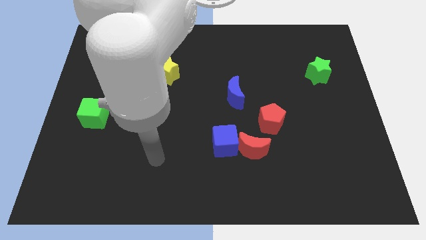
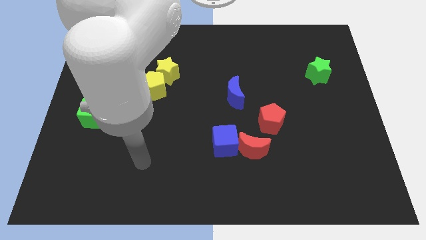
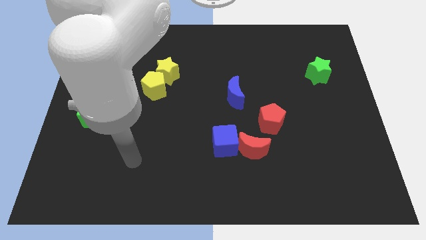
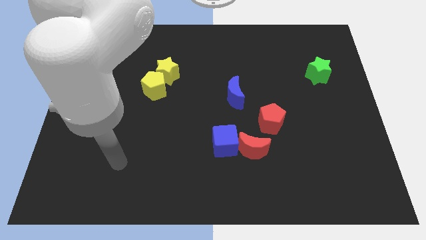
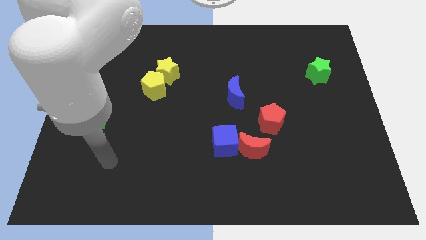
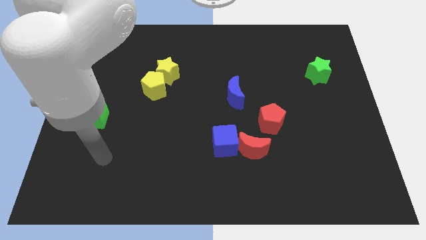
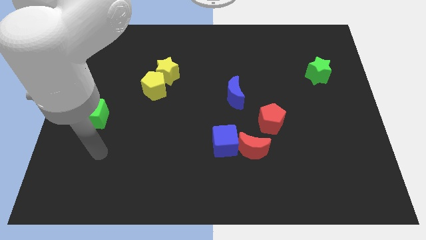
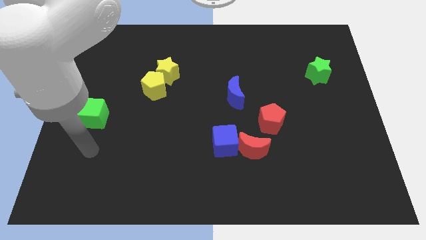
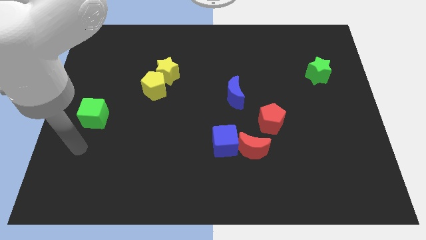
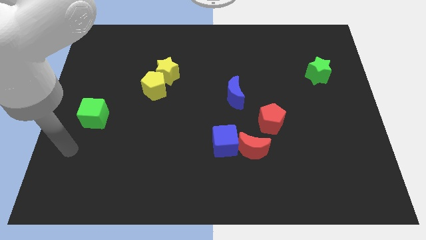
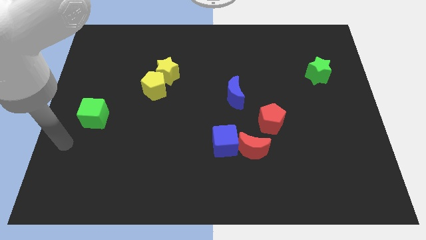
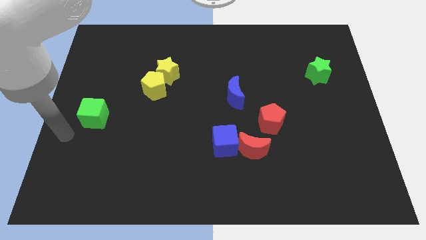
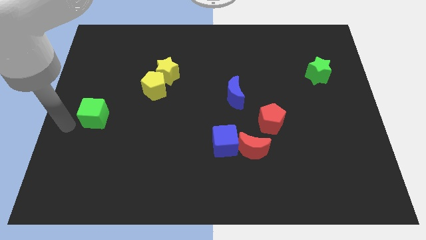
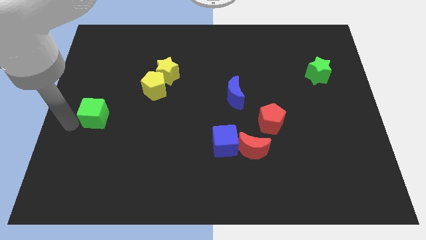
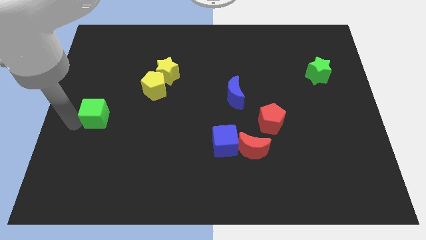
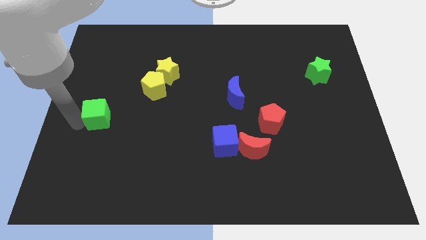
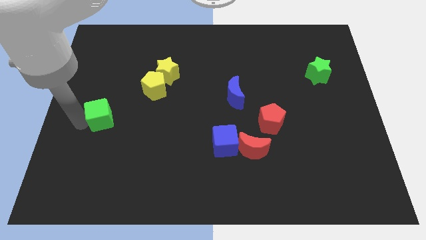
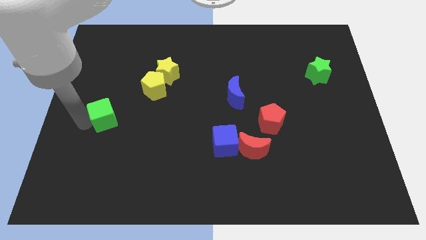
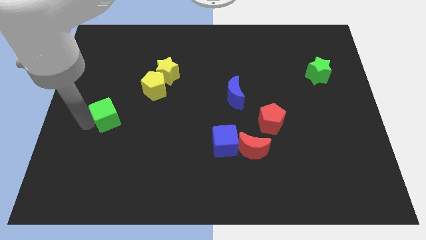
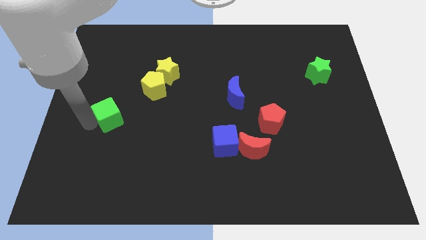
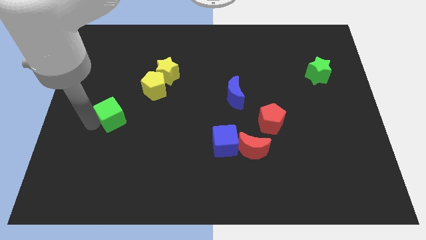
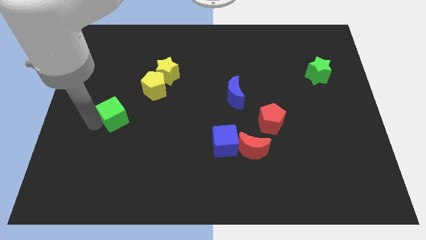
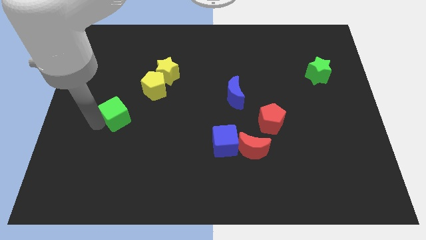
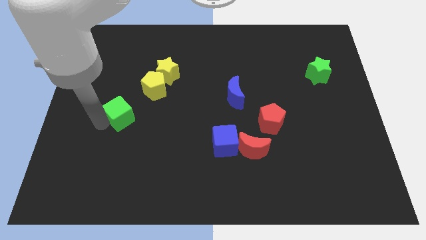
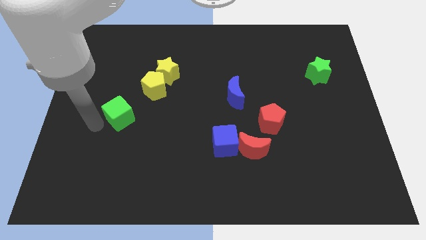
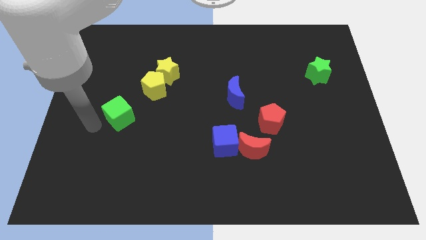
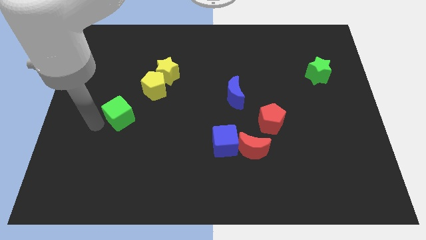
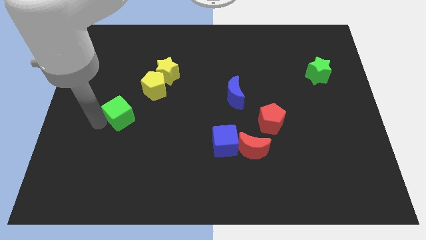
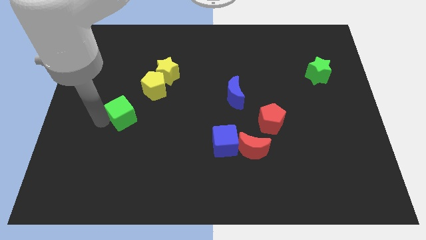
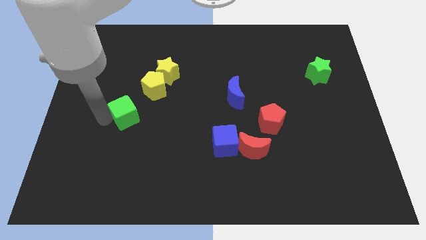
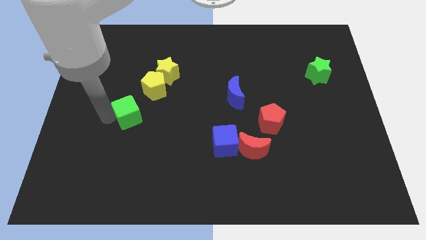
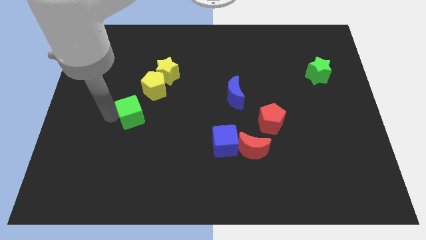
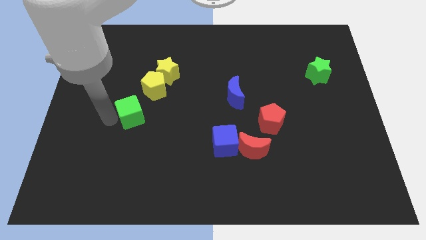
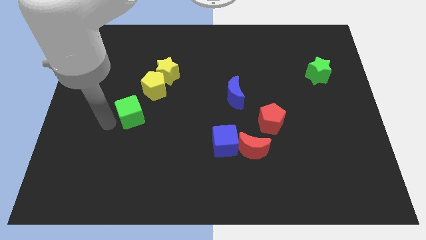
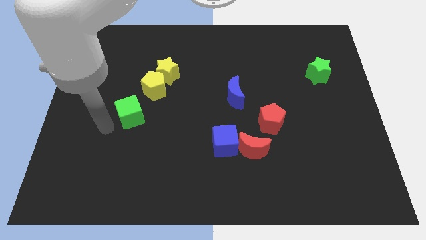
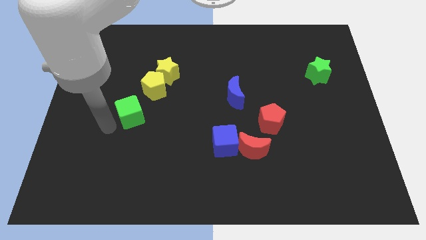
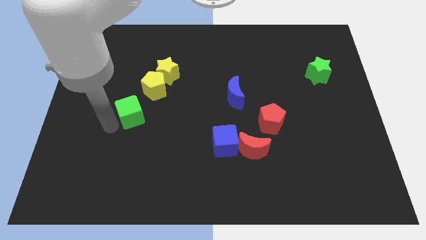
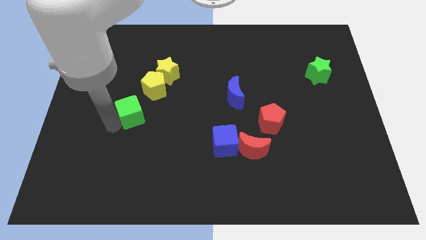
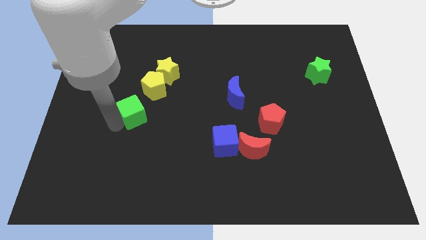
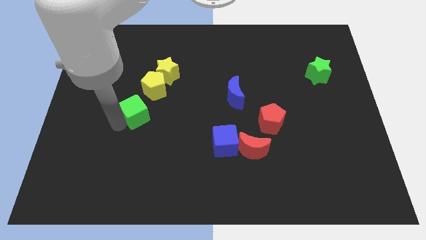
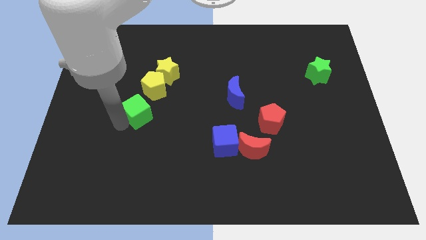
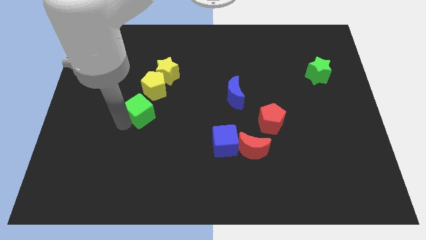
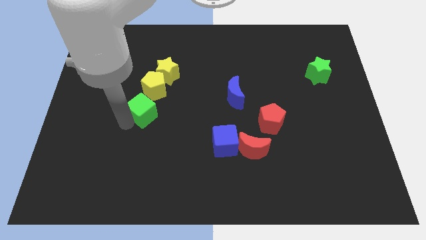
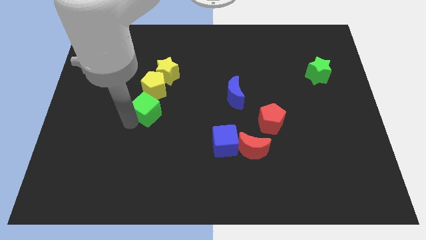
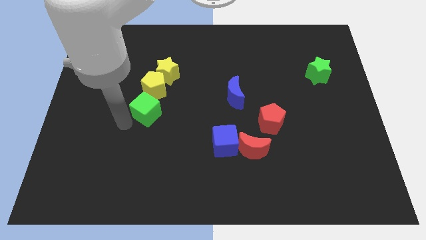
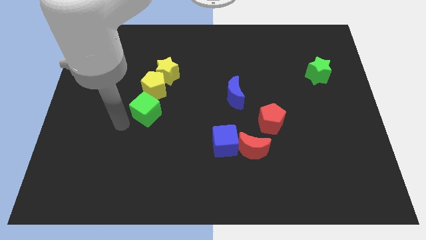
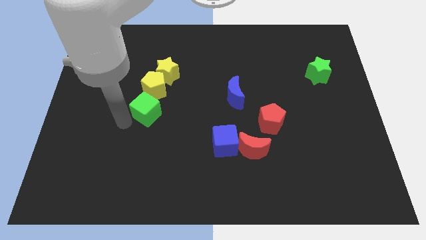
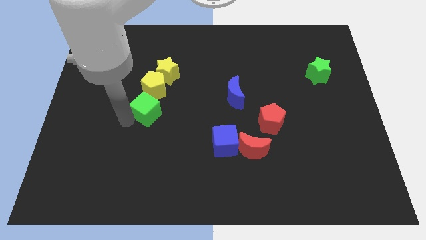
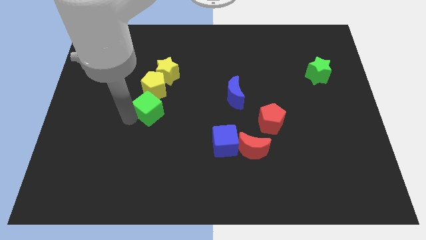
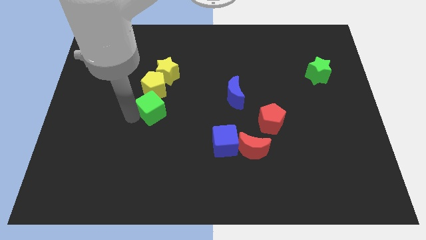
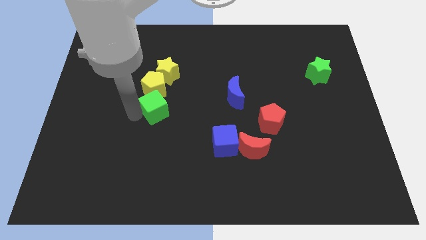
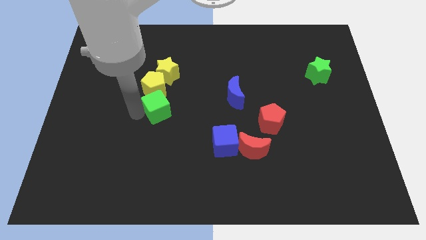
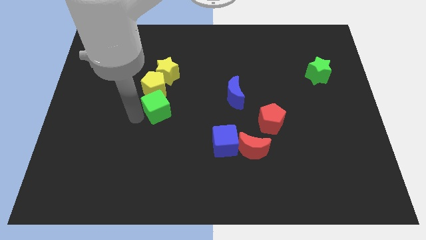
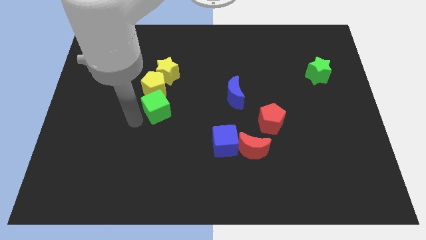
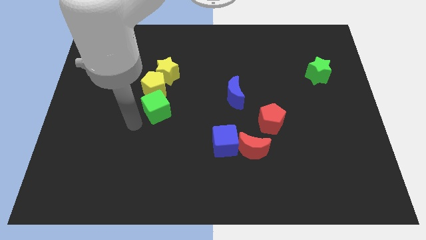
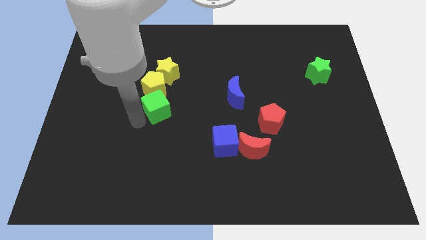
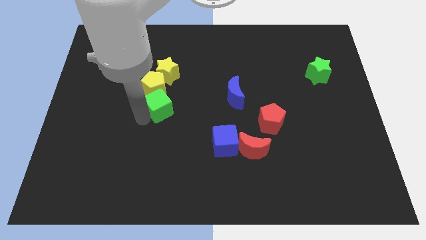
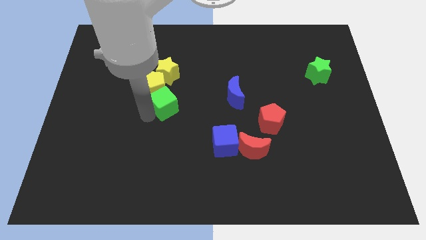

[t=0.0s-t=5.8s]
slide the green cube to the center of the board

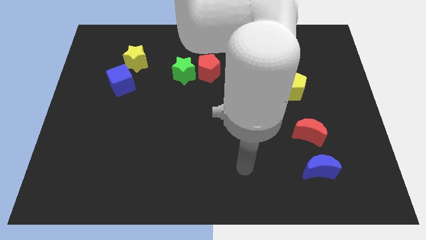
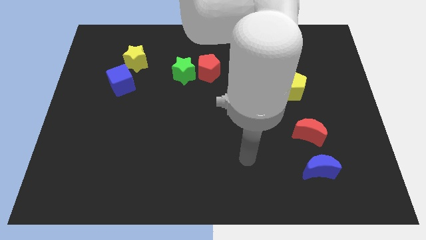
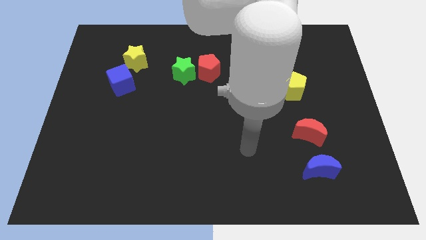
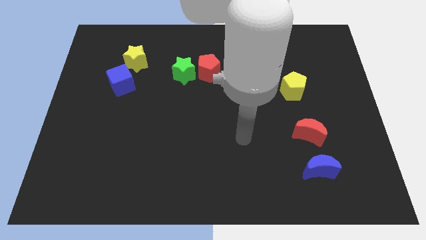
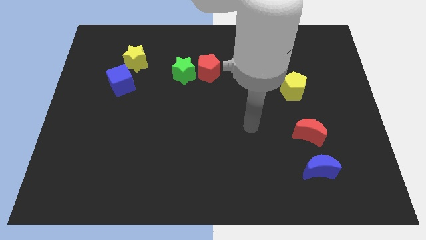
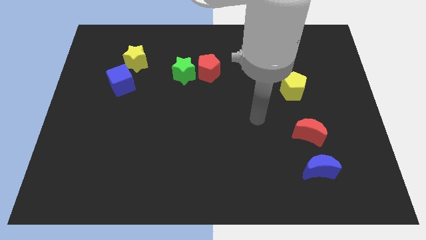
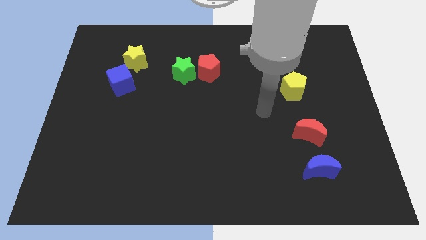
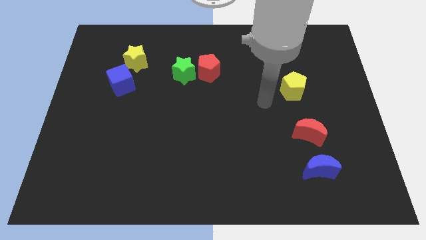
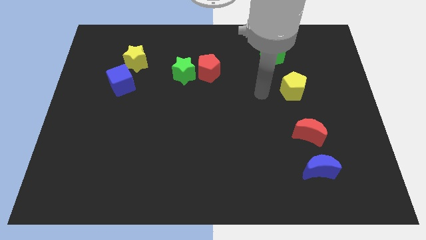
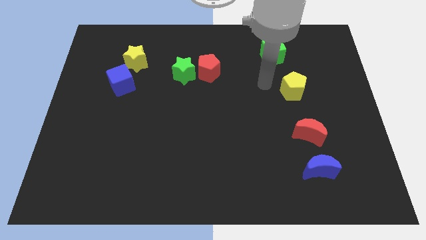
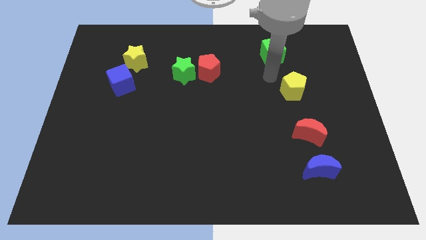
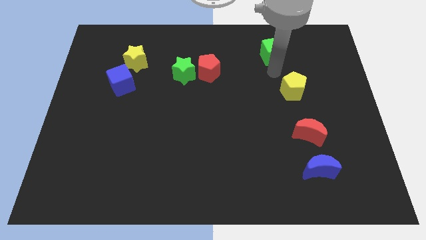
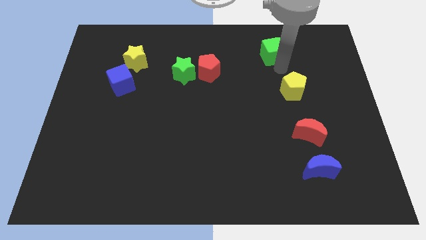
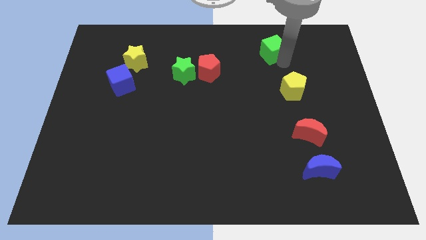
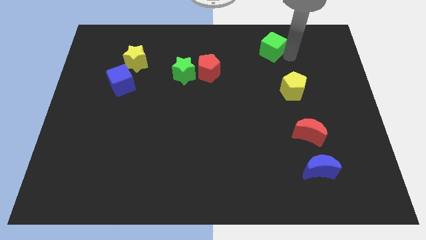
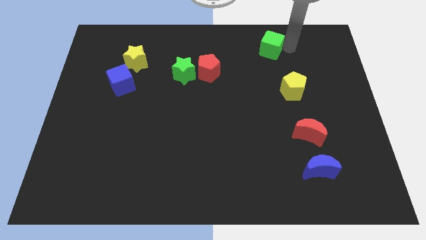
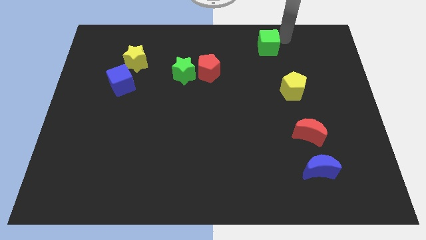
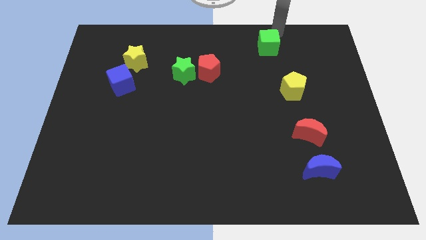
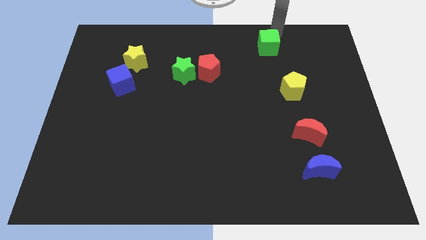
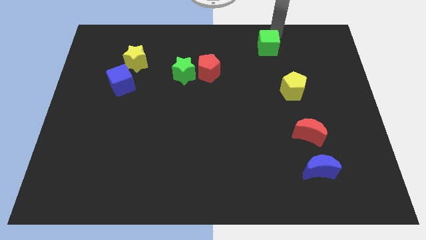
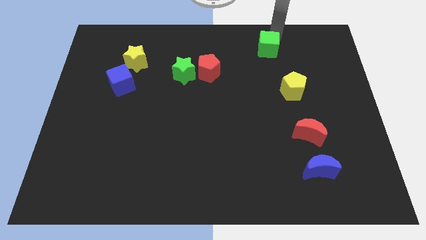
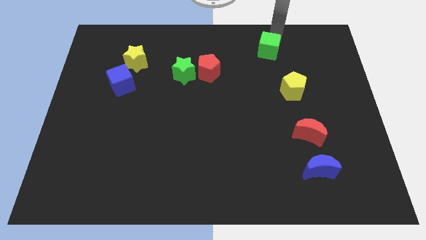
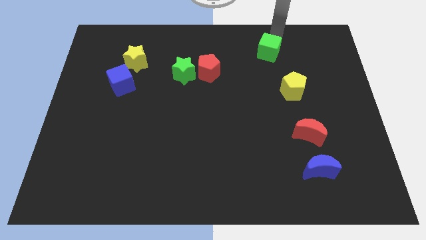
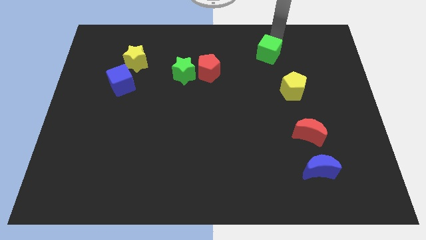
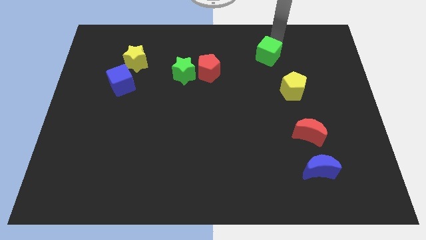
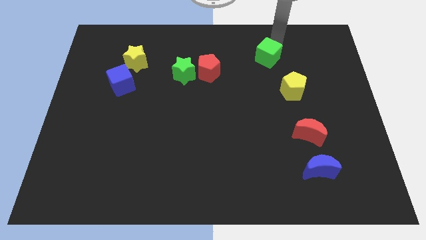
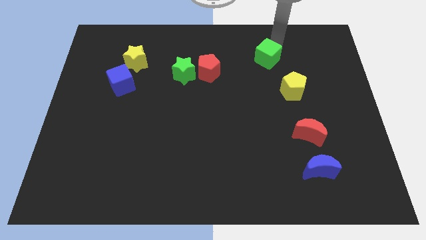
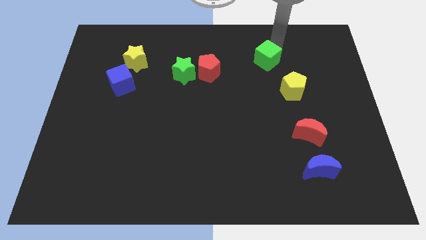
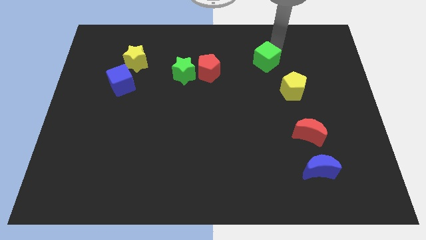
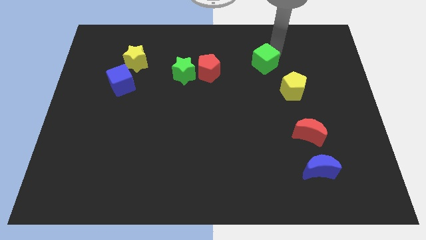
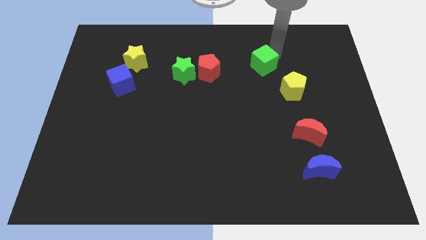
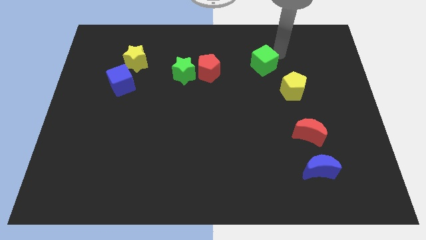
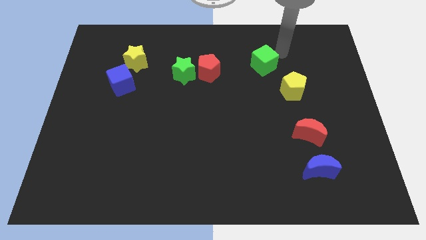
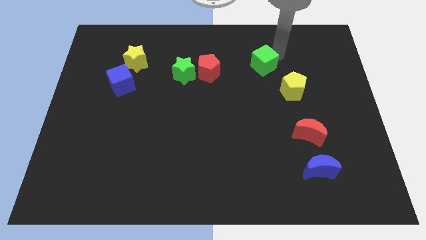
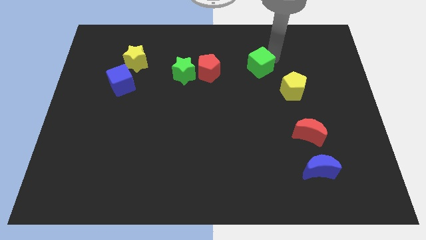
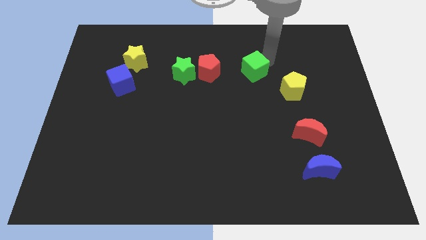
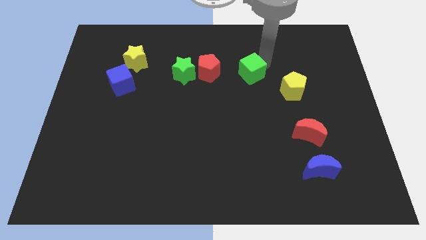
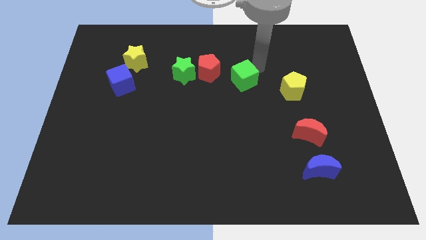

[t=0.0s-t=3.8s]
put the green cube to the center of the board
